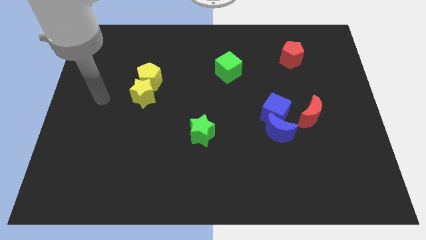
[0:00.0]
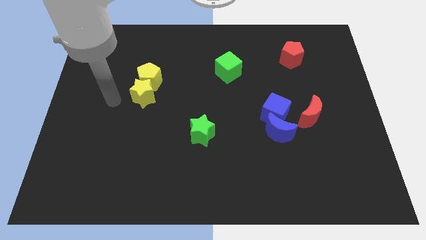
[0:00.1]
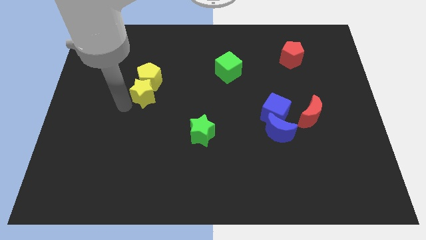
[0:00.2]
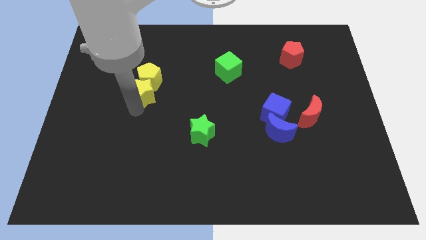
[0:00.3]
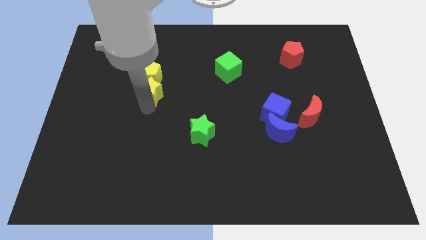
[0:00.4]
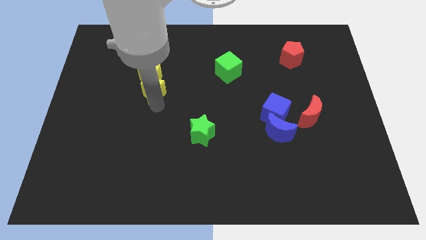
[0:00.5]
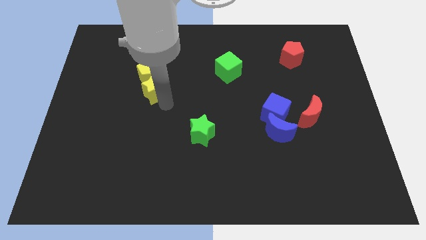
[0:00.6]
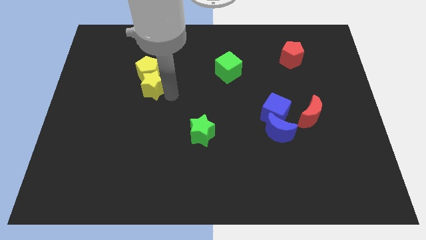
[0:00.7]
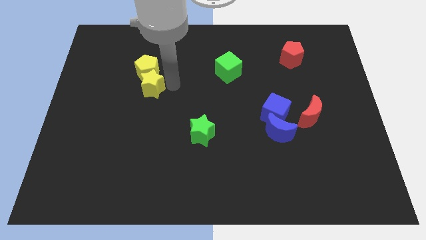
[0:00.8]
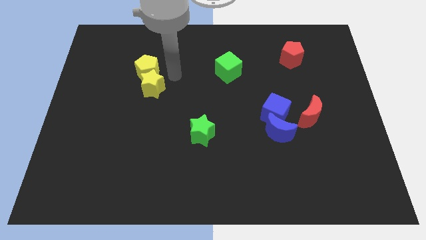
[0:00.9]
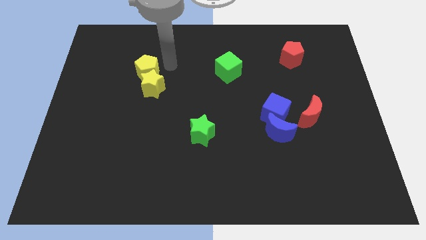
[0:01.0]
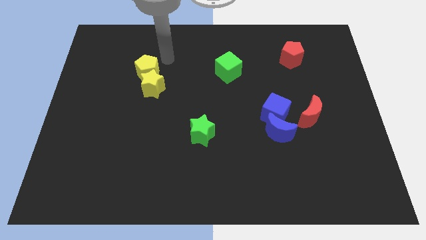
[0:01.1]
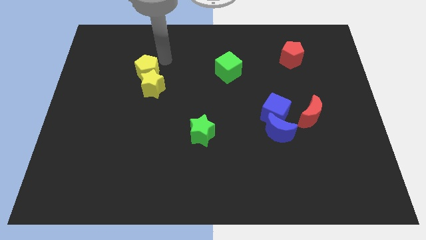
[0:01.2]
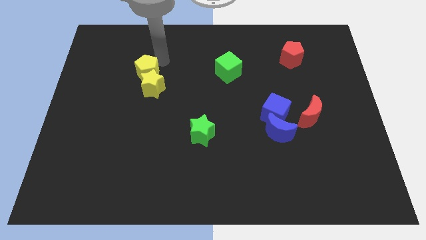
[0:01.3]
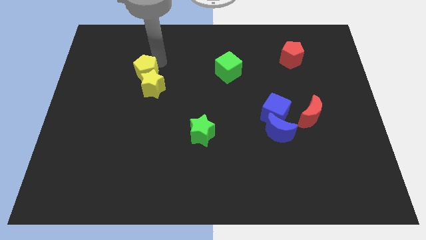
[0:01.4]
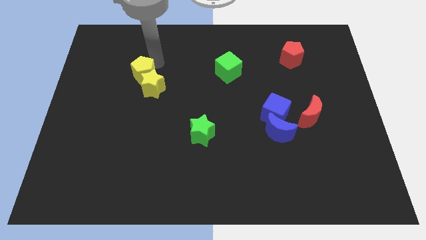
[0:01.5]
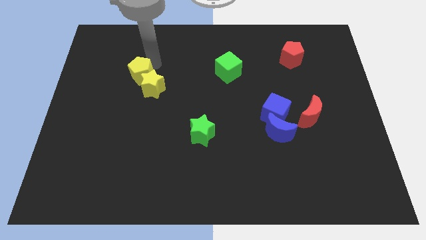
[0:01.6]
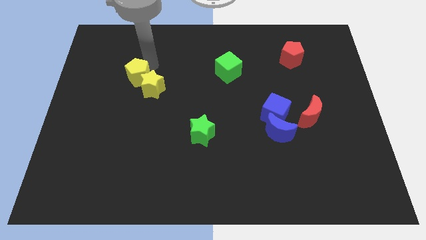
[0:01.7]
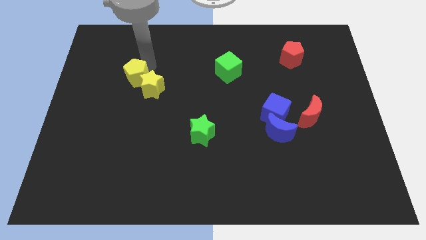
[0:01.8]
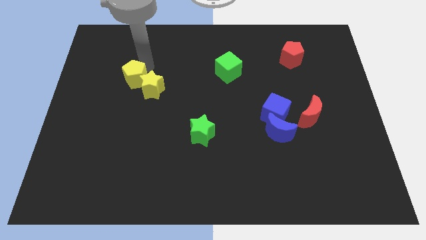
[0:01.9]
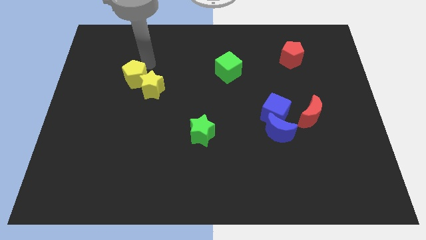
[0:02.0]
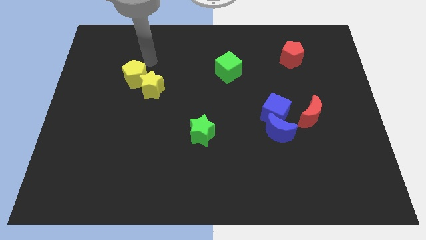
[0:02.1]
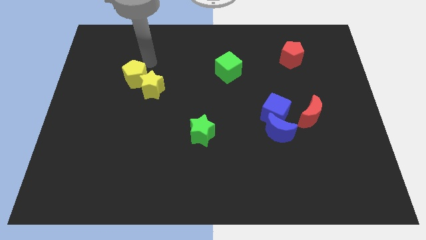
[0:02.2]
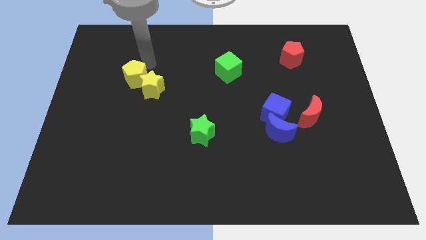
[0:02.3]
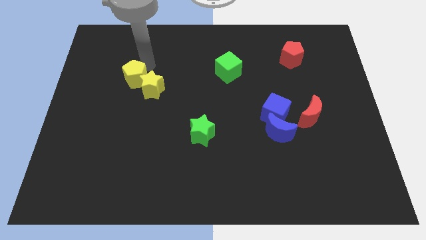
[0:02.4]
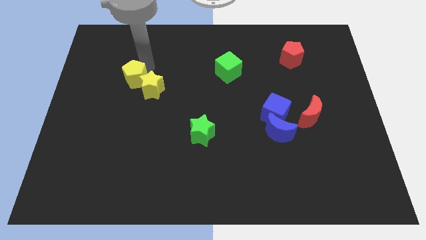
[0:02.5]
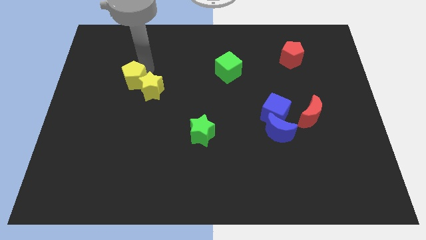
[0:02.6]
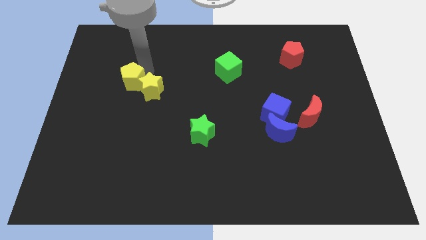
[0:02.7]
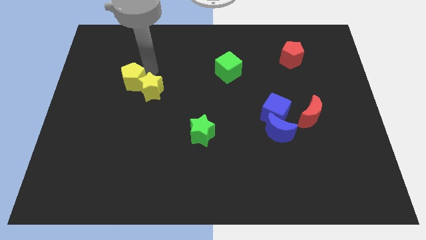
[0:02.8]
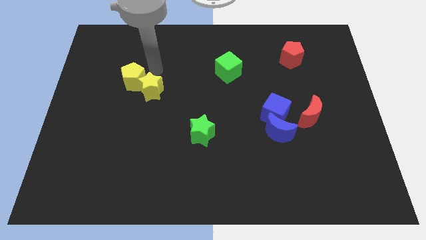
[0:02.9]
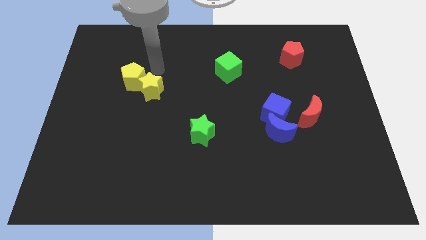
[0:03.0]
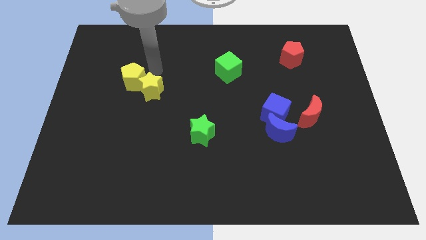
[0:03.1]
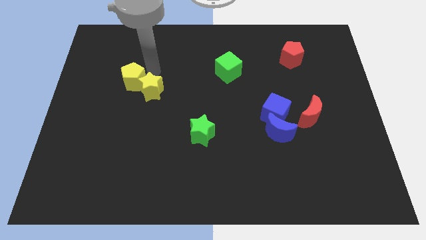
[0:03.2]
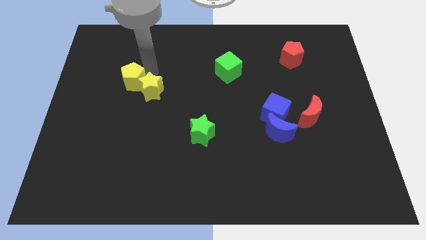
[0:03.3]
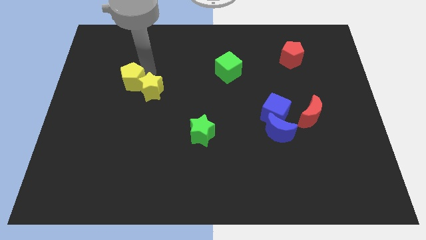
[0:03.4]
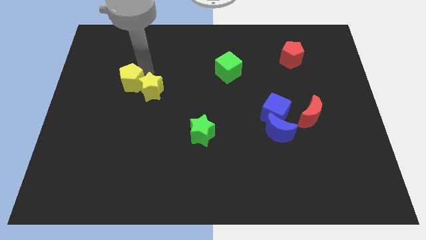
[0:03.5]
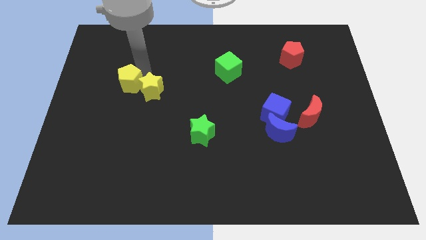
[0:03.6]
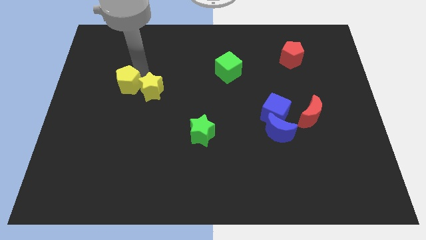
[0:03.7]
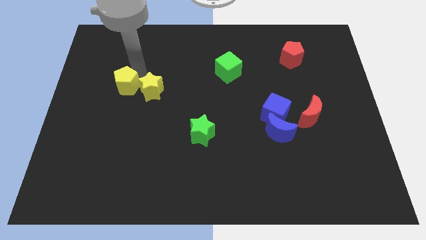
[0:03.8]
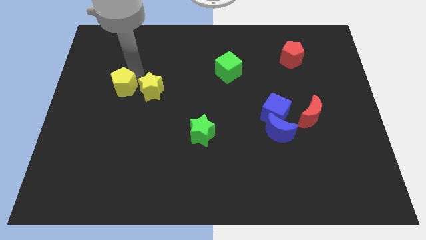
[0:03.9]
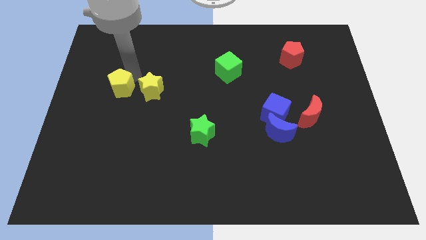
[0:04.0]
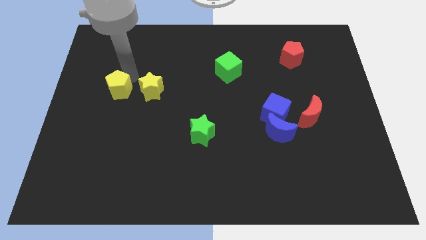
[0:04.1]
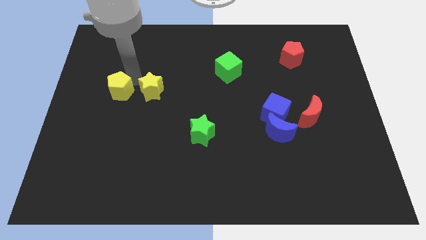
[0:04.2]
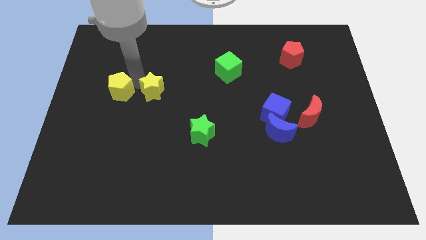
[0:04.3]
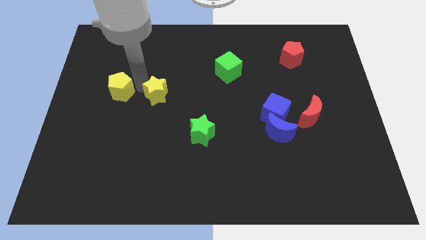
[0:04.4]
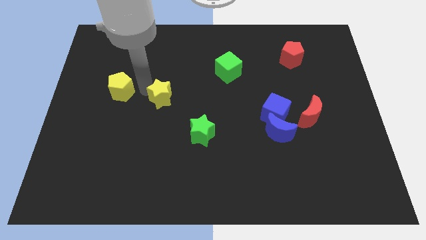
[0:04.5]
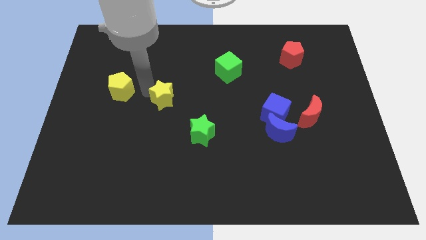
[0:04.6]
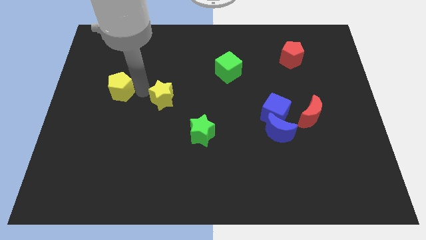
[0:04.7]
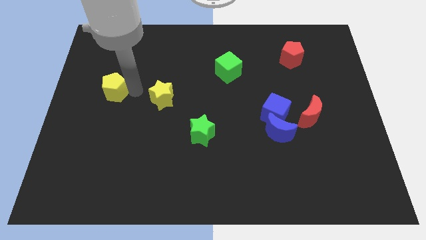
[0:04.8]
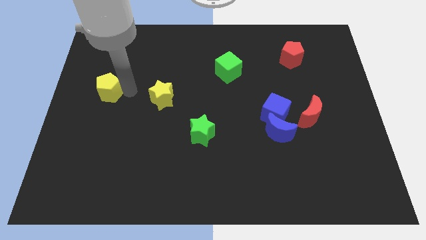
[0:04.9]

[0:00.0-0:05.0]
push the yellow pentagon to the left side

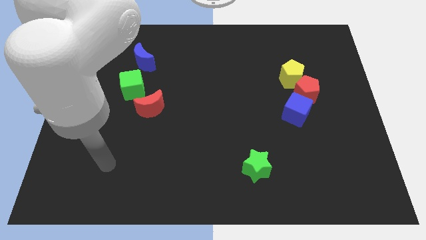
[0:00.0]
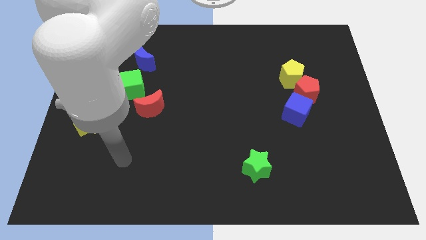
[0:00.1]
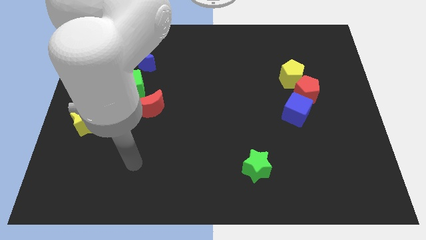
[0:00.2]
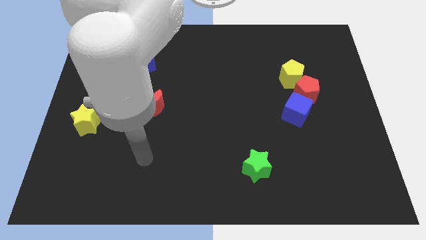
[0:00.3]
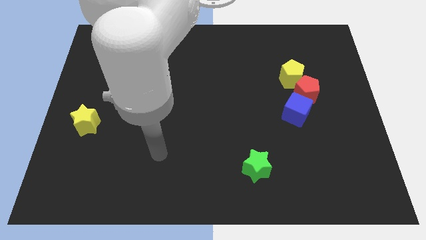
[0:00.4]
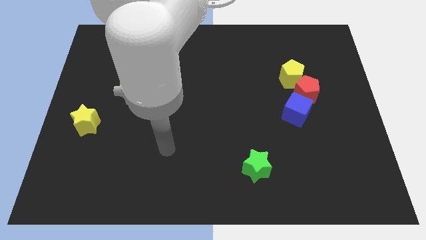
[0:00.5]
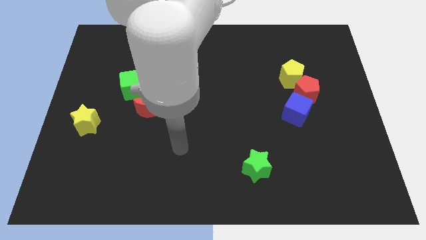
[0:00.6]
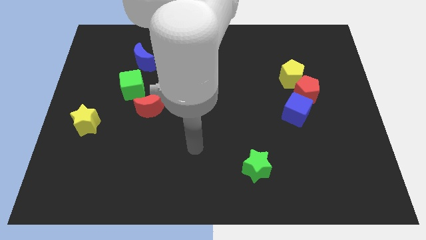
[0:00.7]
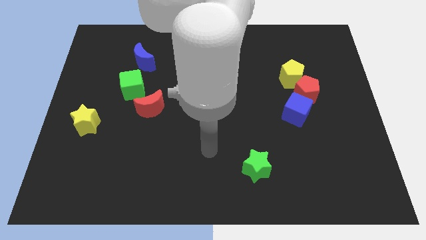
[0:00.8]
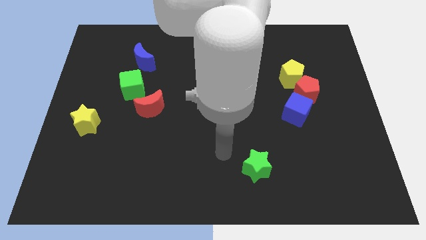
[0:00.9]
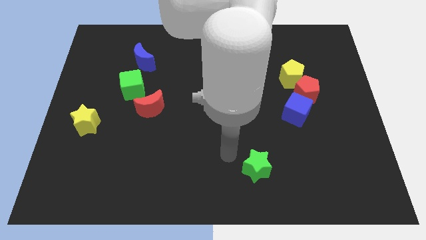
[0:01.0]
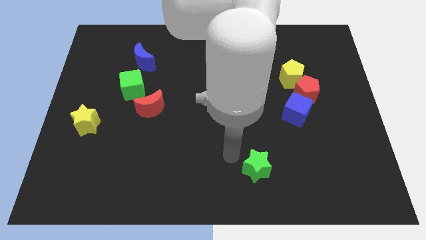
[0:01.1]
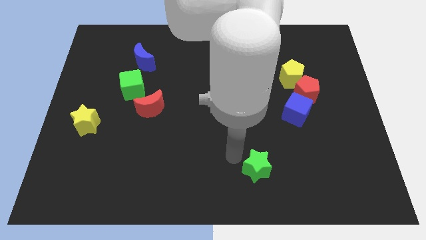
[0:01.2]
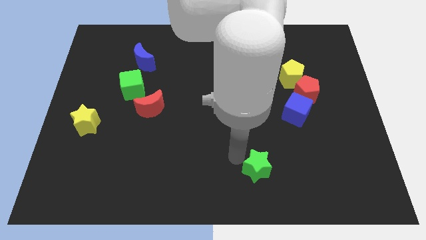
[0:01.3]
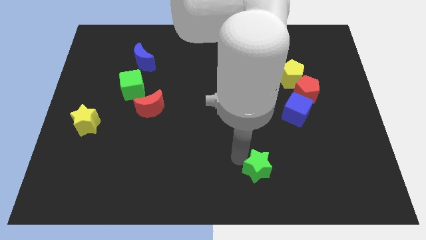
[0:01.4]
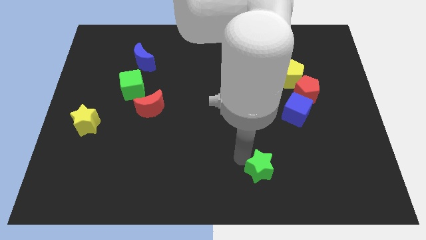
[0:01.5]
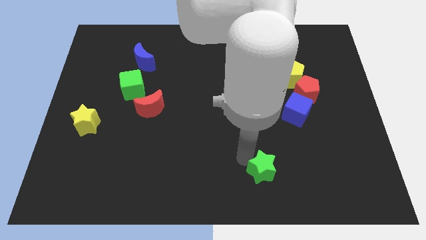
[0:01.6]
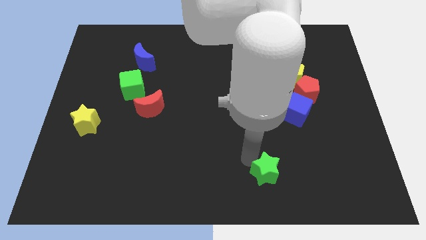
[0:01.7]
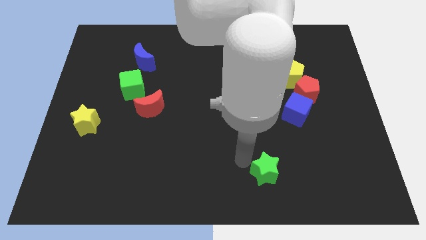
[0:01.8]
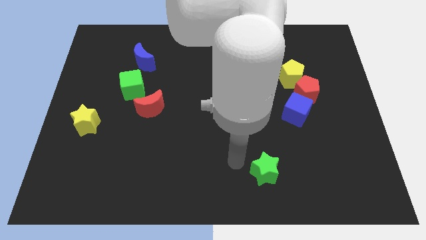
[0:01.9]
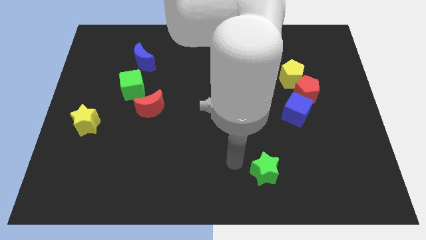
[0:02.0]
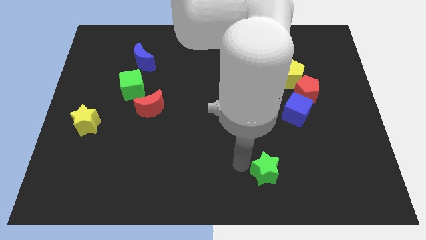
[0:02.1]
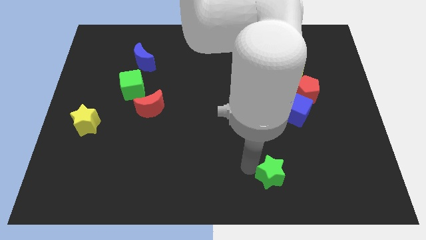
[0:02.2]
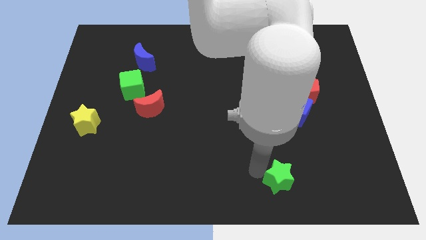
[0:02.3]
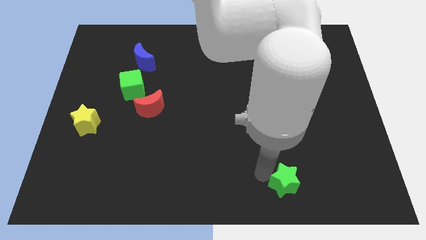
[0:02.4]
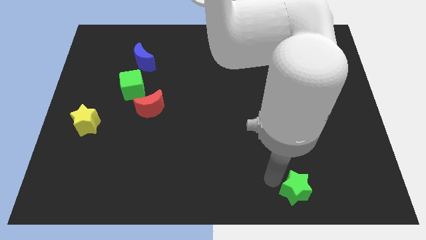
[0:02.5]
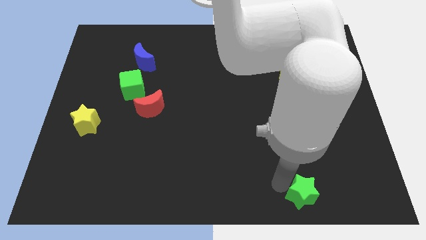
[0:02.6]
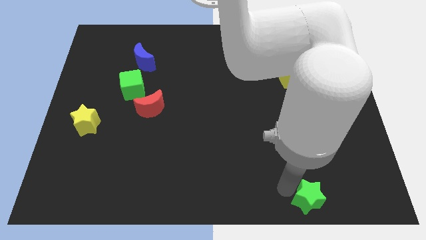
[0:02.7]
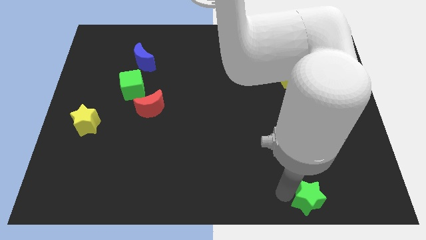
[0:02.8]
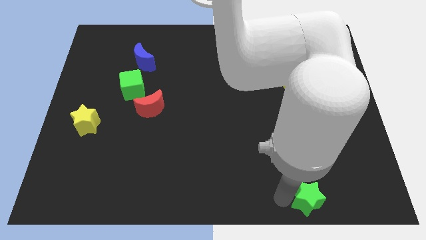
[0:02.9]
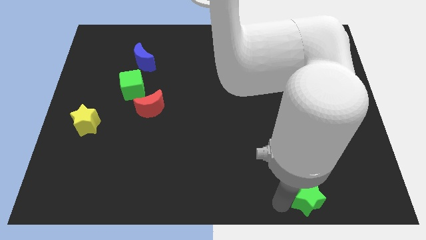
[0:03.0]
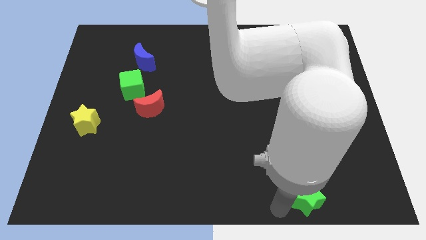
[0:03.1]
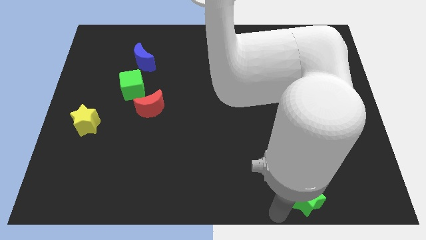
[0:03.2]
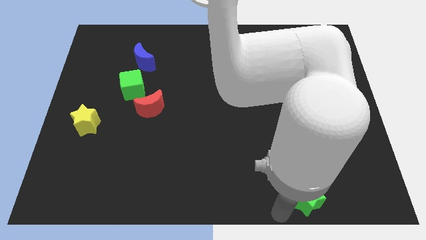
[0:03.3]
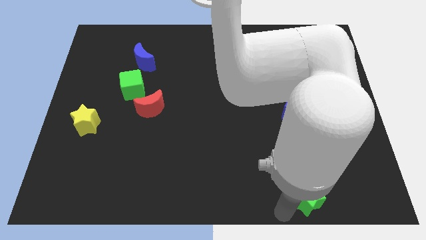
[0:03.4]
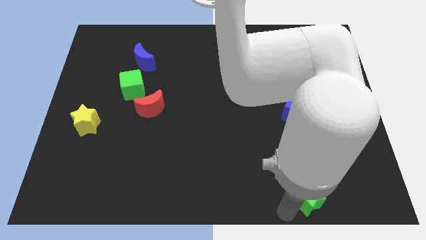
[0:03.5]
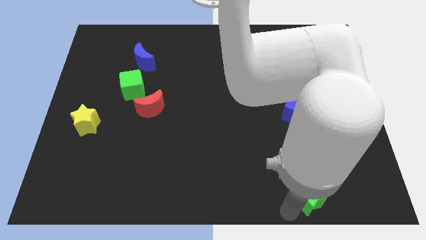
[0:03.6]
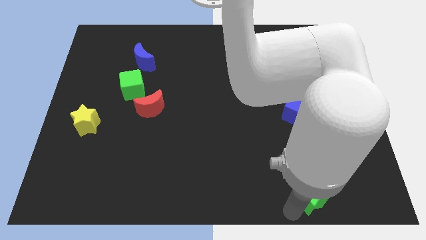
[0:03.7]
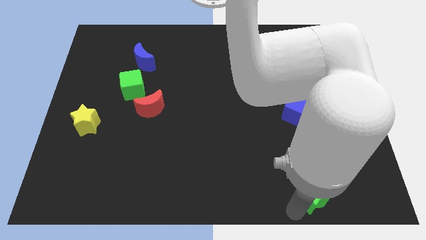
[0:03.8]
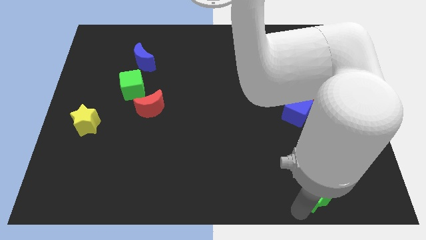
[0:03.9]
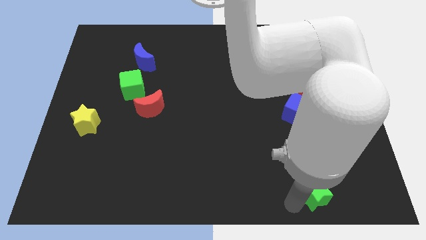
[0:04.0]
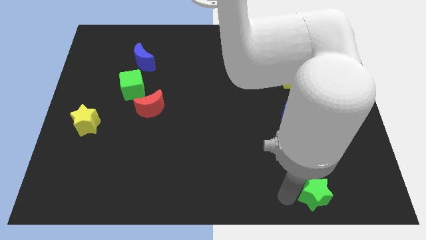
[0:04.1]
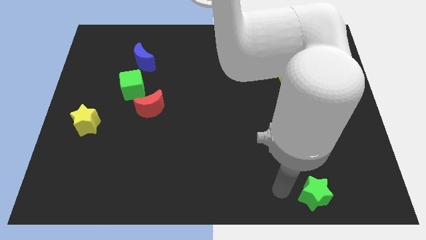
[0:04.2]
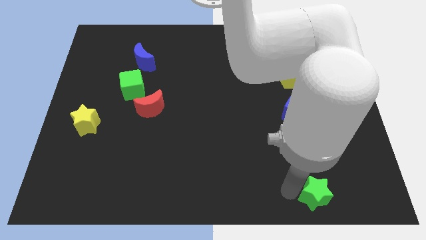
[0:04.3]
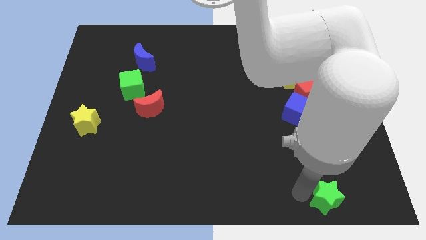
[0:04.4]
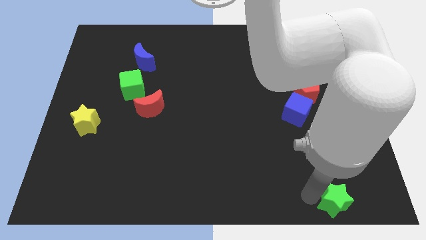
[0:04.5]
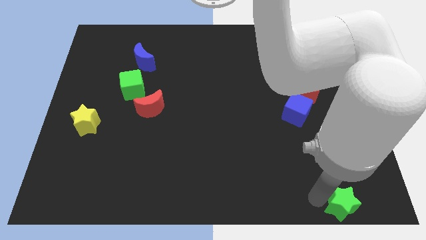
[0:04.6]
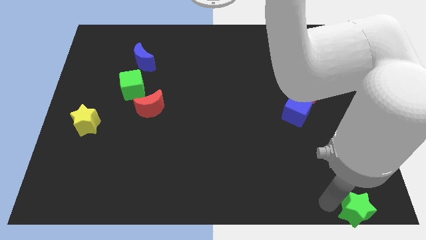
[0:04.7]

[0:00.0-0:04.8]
put the green star to the bottom right
